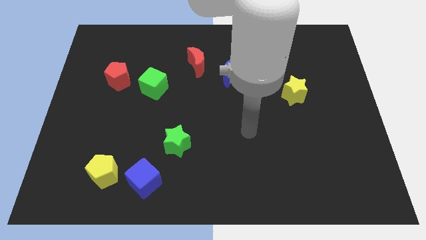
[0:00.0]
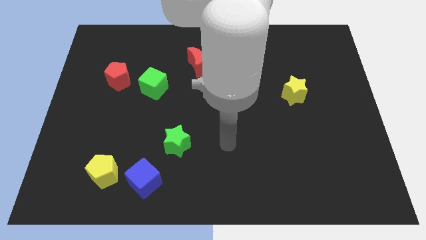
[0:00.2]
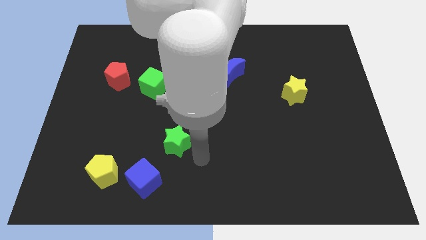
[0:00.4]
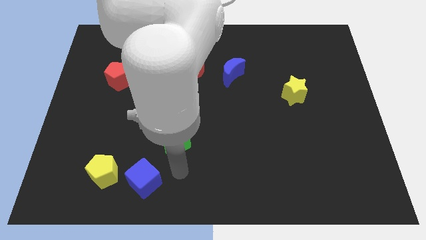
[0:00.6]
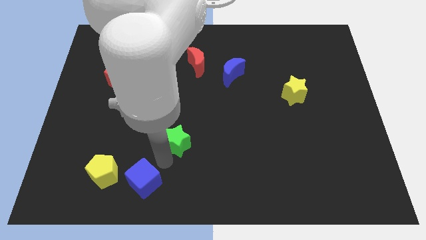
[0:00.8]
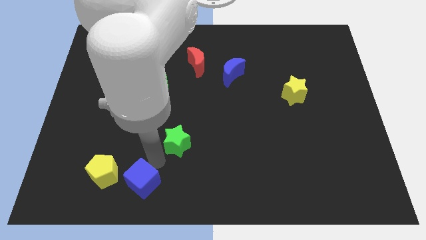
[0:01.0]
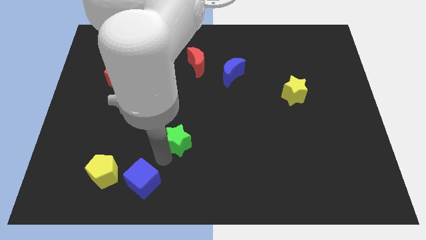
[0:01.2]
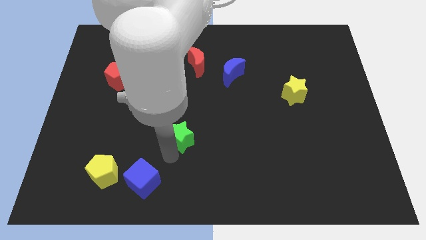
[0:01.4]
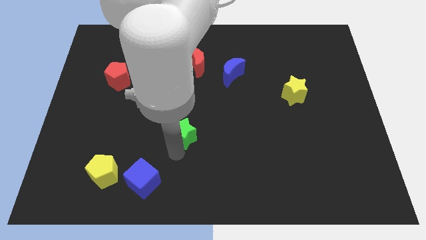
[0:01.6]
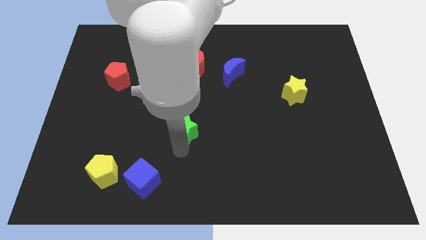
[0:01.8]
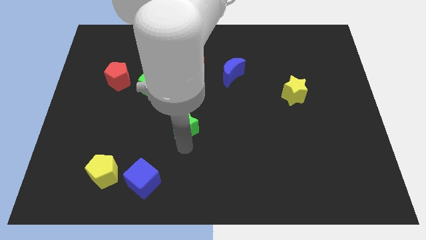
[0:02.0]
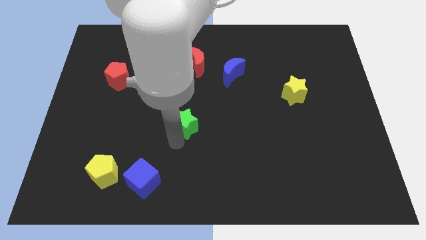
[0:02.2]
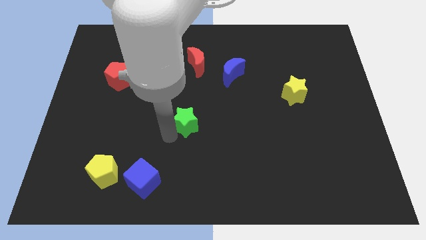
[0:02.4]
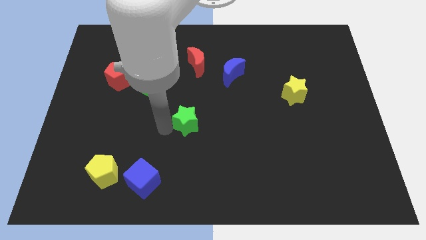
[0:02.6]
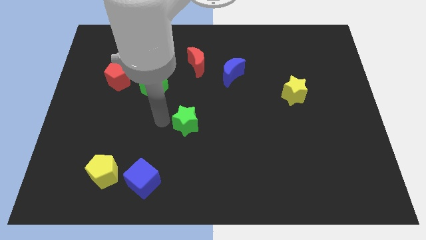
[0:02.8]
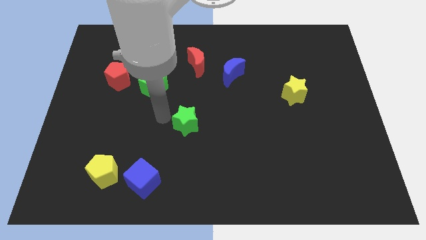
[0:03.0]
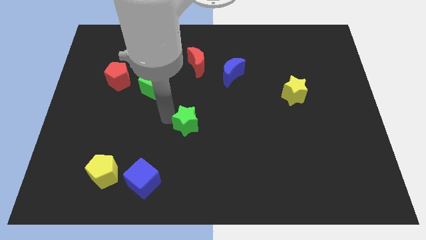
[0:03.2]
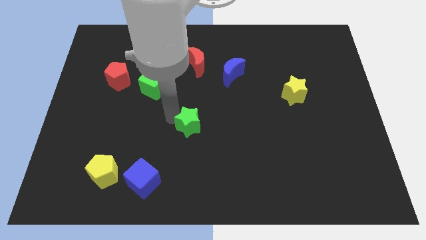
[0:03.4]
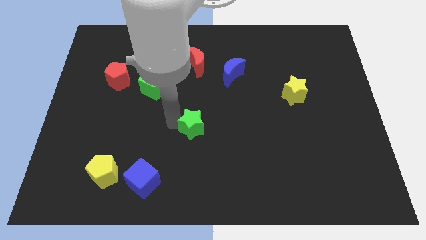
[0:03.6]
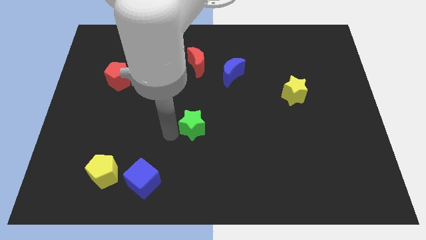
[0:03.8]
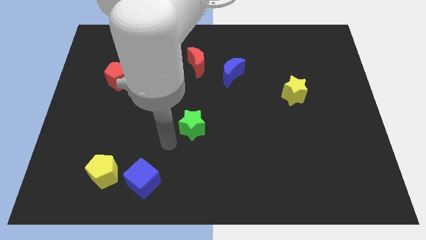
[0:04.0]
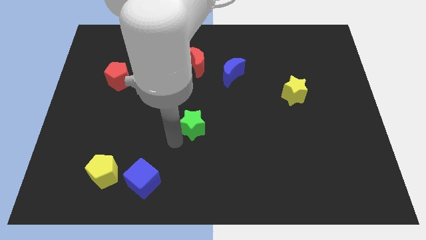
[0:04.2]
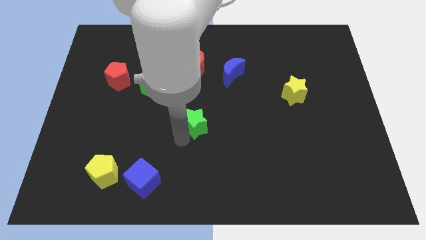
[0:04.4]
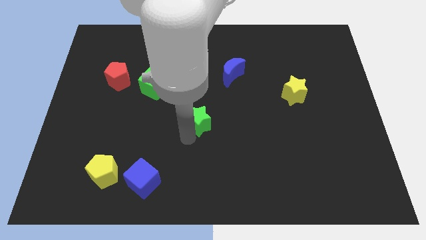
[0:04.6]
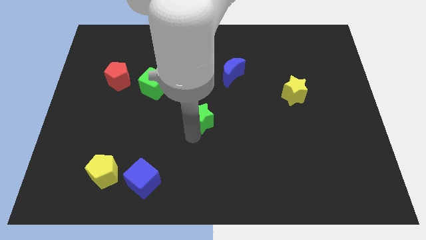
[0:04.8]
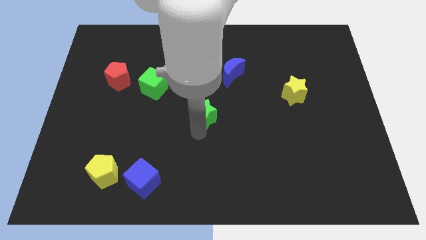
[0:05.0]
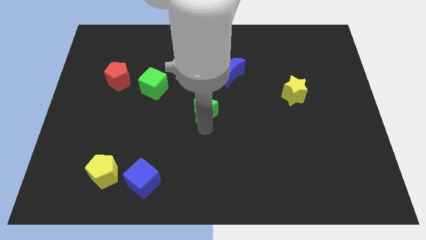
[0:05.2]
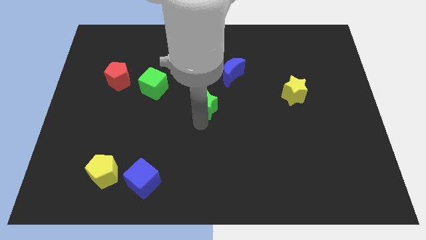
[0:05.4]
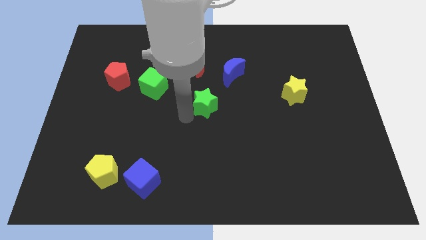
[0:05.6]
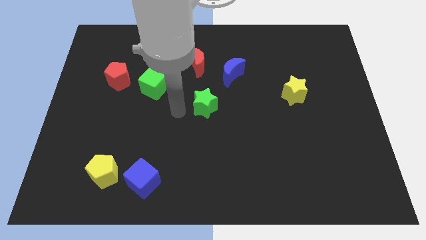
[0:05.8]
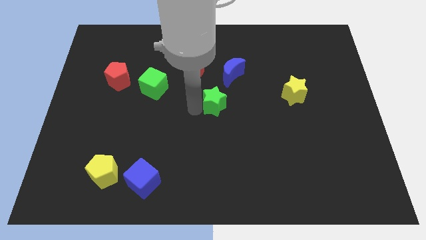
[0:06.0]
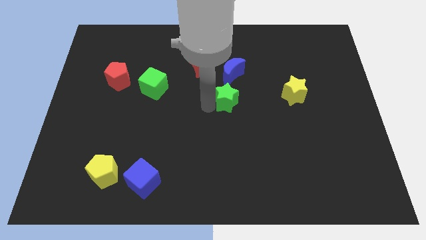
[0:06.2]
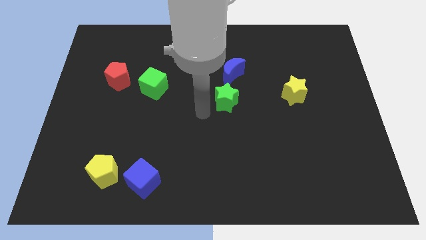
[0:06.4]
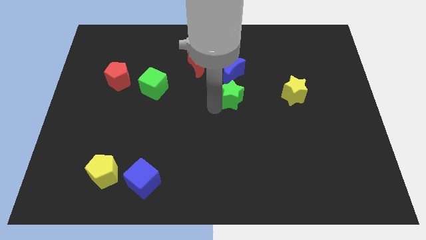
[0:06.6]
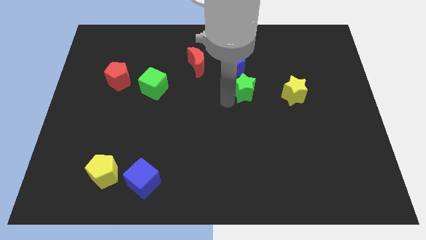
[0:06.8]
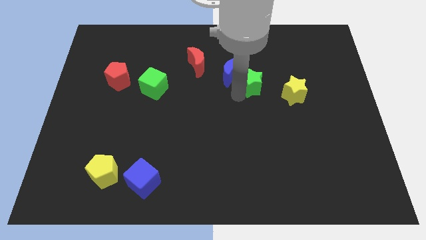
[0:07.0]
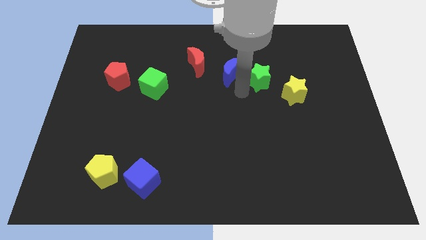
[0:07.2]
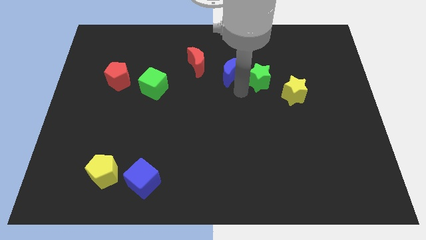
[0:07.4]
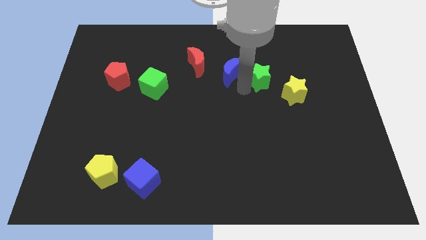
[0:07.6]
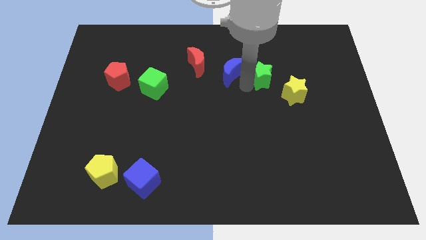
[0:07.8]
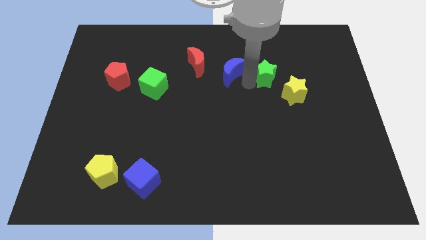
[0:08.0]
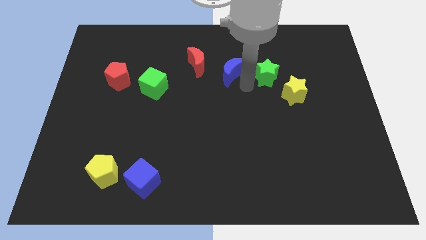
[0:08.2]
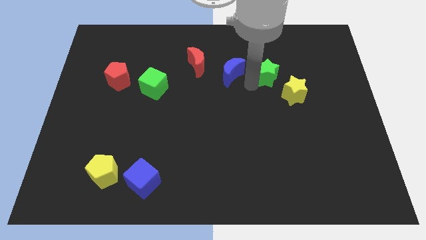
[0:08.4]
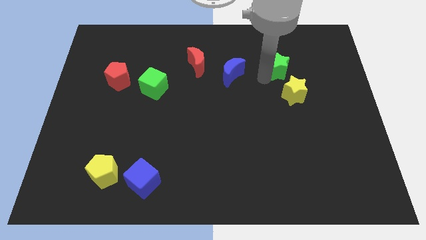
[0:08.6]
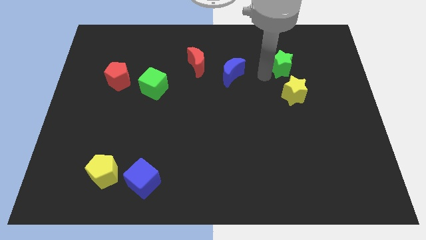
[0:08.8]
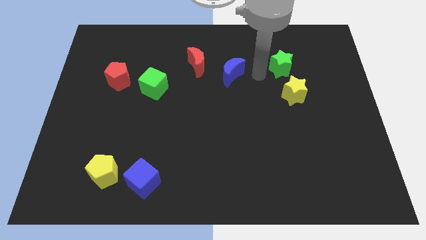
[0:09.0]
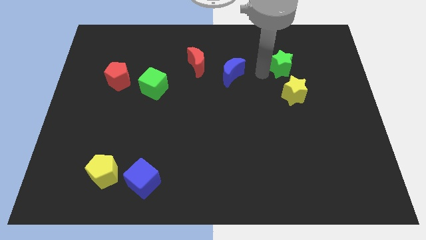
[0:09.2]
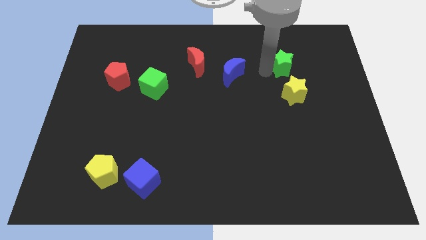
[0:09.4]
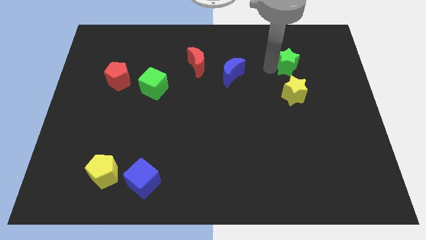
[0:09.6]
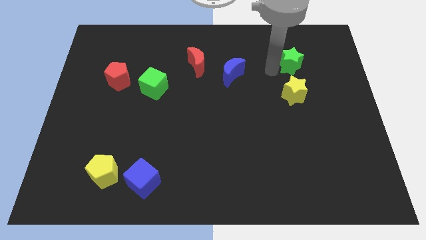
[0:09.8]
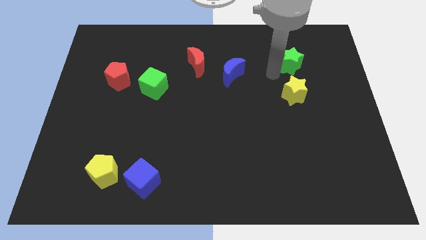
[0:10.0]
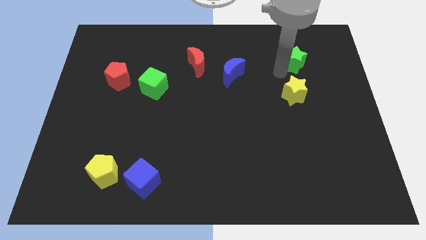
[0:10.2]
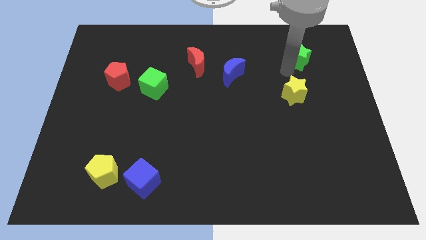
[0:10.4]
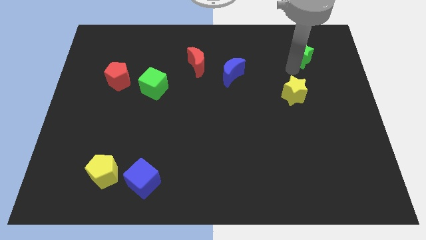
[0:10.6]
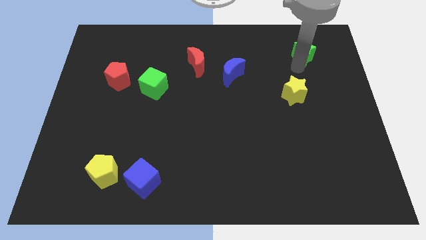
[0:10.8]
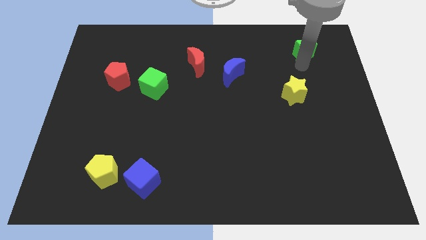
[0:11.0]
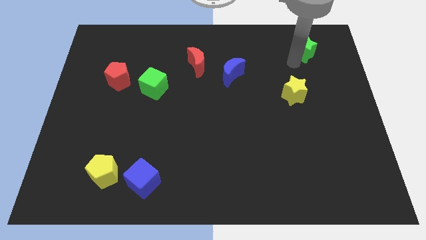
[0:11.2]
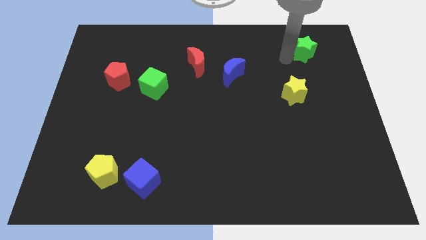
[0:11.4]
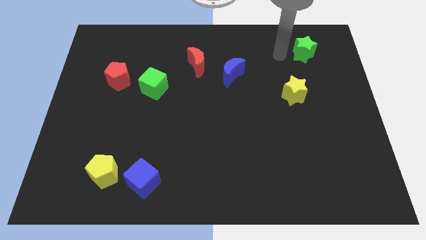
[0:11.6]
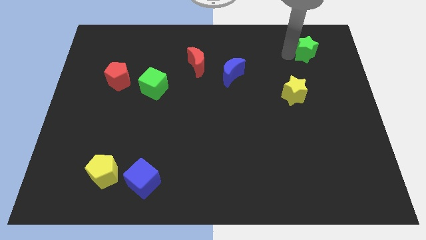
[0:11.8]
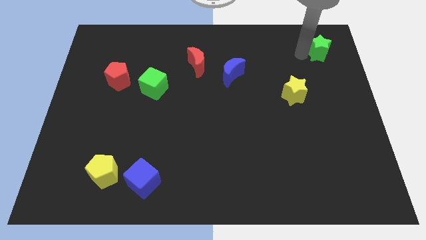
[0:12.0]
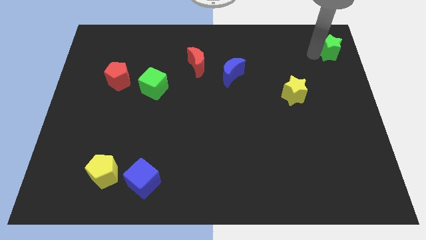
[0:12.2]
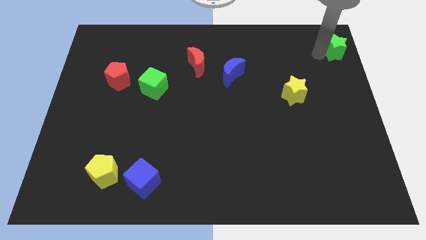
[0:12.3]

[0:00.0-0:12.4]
move the green star to the upper right corner

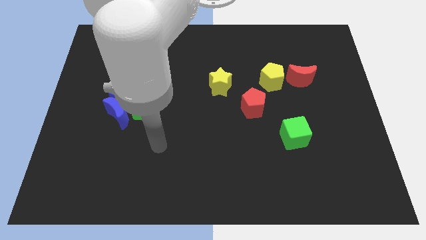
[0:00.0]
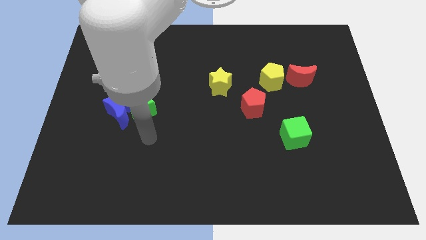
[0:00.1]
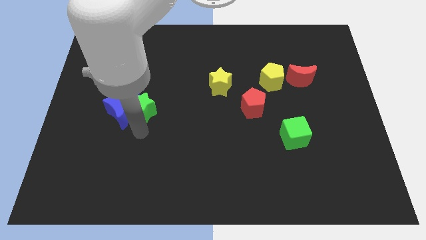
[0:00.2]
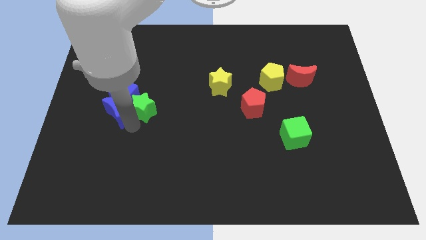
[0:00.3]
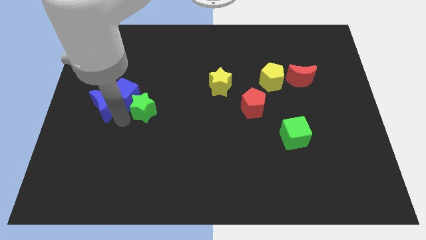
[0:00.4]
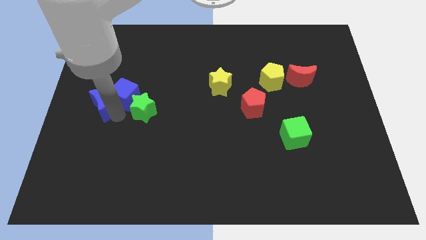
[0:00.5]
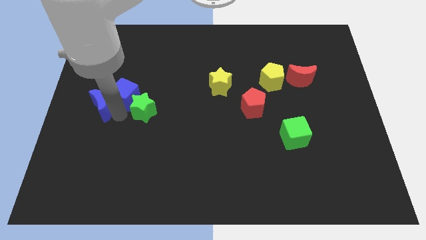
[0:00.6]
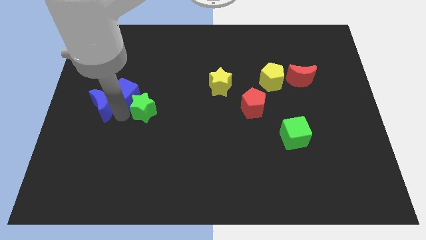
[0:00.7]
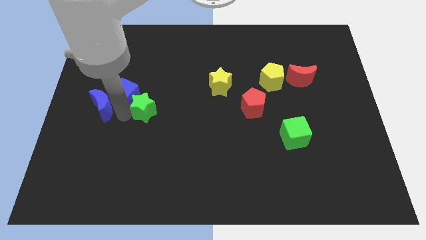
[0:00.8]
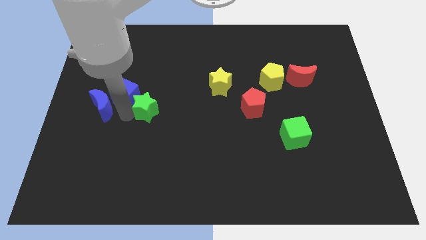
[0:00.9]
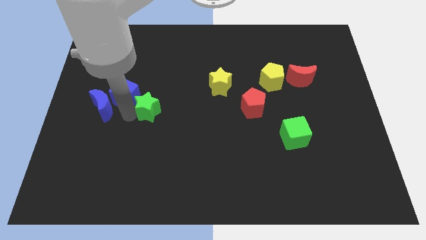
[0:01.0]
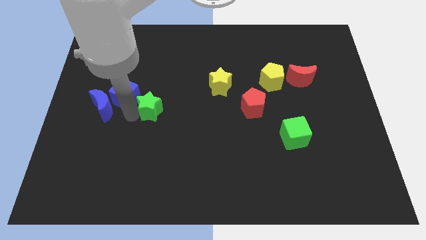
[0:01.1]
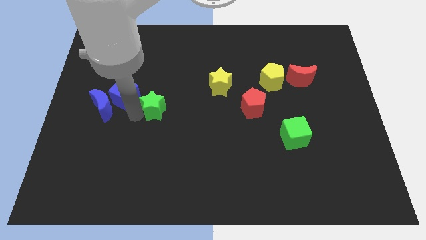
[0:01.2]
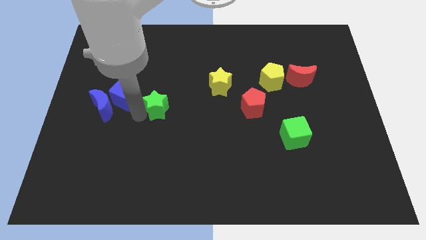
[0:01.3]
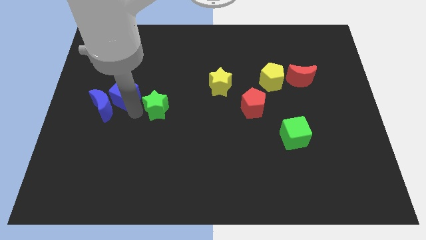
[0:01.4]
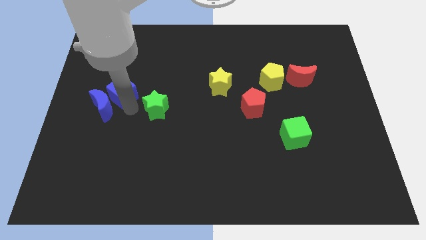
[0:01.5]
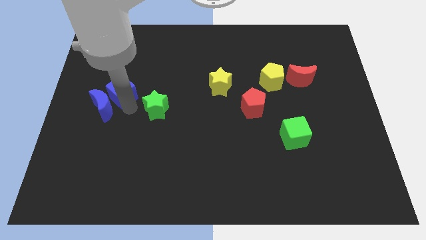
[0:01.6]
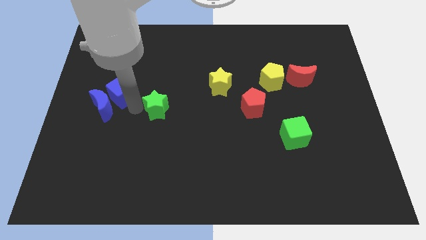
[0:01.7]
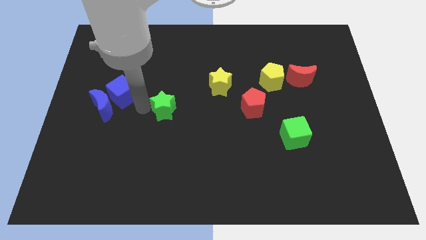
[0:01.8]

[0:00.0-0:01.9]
move the green star to the center of the board
